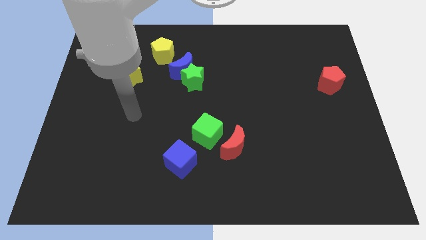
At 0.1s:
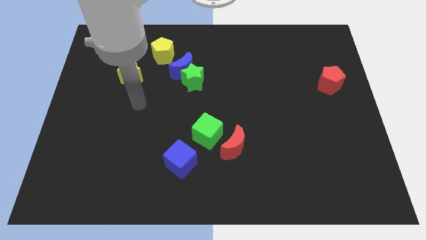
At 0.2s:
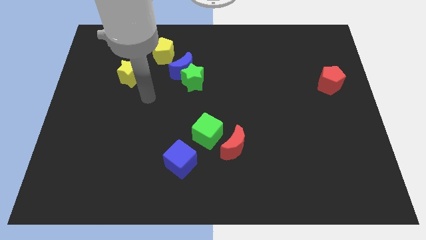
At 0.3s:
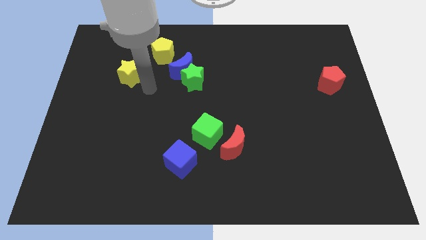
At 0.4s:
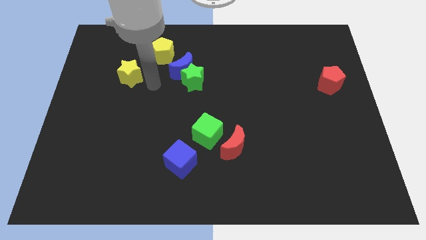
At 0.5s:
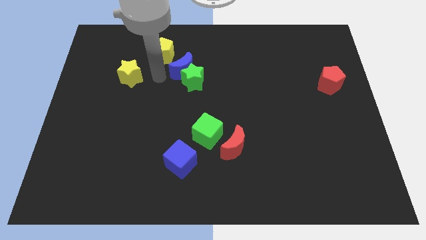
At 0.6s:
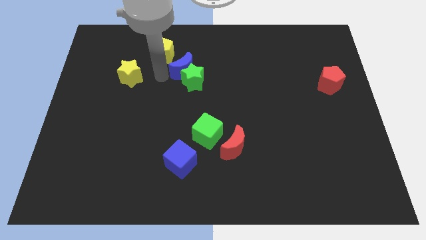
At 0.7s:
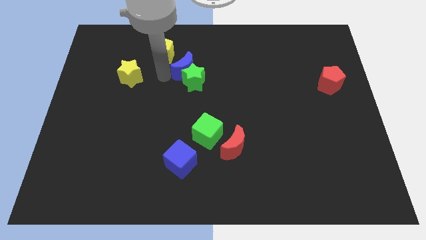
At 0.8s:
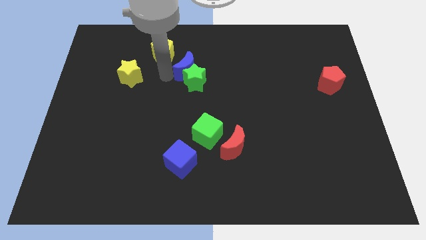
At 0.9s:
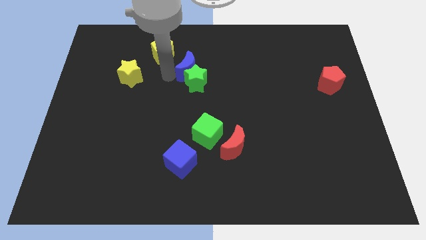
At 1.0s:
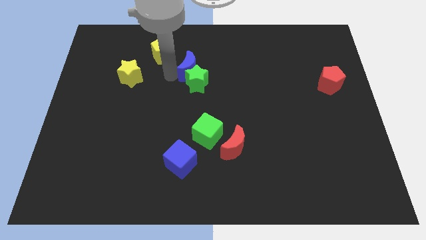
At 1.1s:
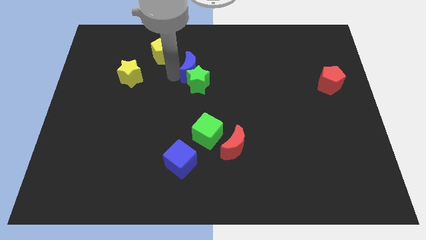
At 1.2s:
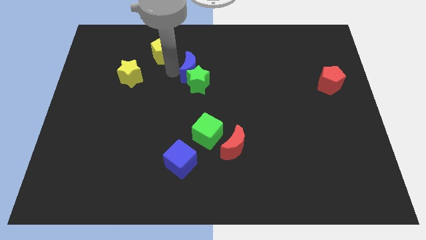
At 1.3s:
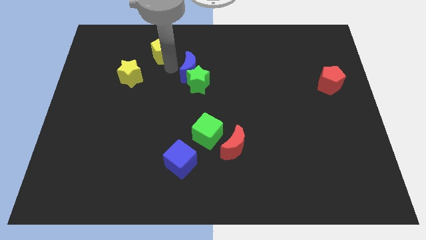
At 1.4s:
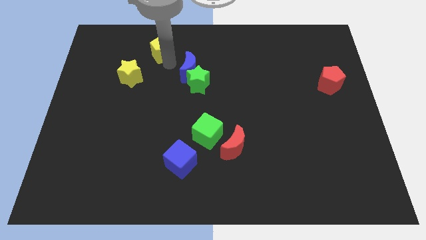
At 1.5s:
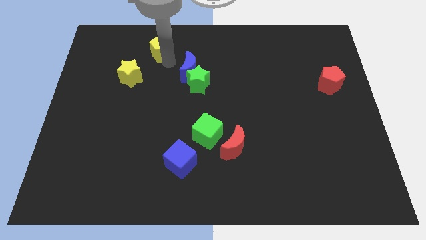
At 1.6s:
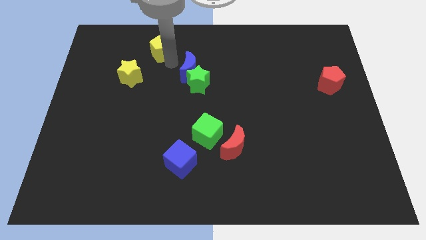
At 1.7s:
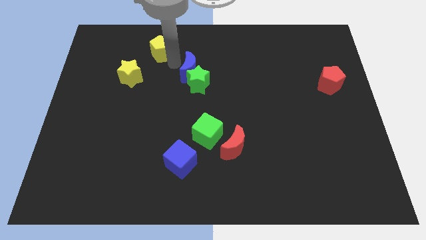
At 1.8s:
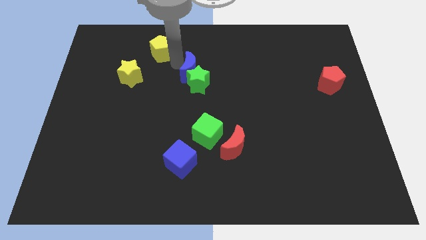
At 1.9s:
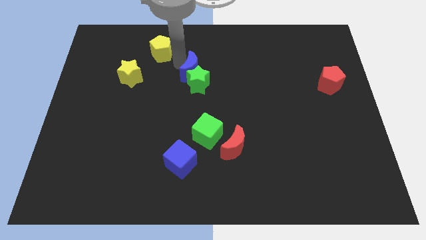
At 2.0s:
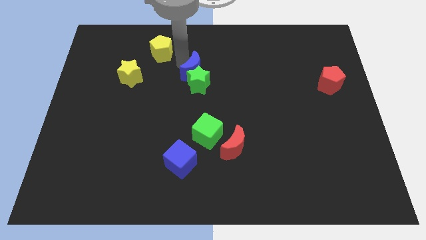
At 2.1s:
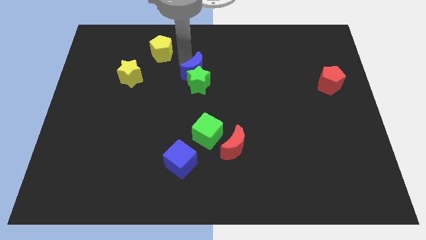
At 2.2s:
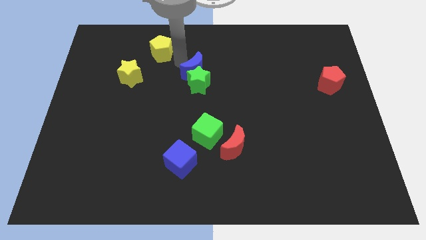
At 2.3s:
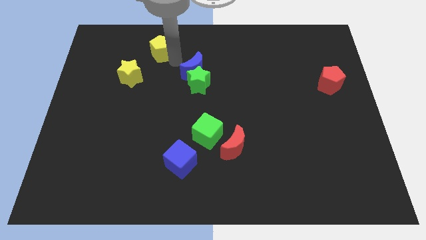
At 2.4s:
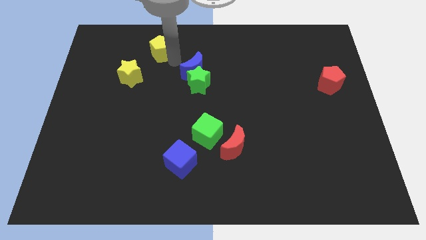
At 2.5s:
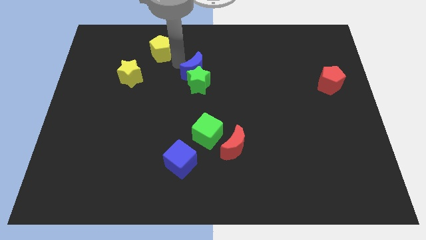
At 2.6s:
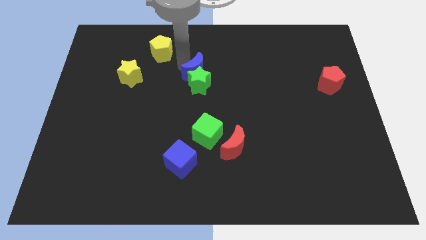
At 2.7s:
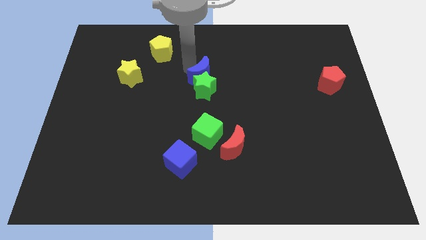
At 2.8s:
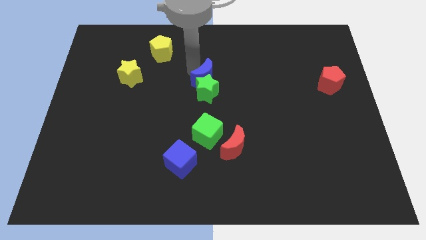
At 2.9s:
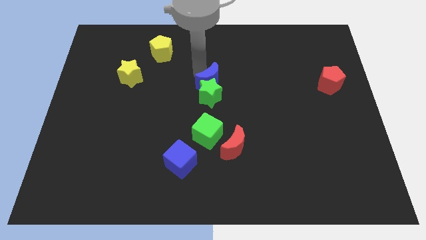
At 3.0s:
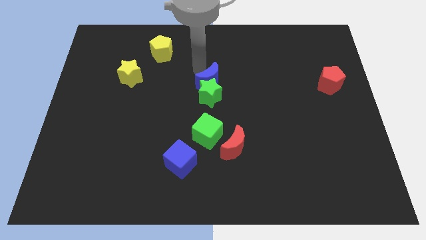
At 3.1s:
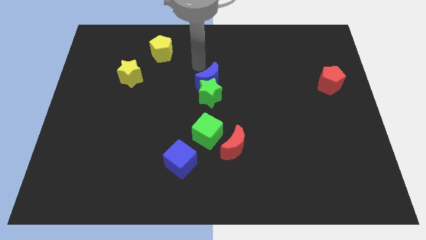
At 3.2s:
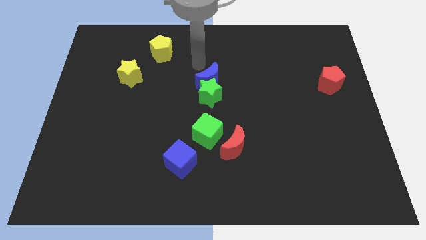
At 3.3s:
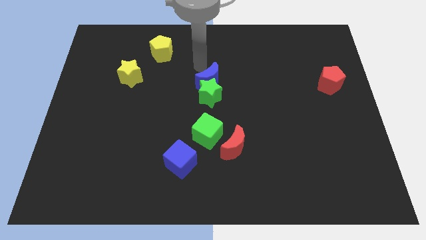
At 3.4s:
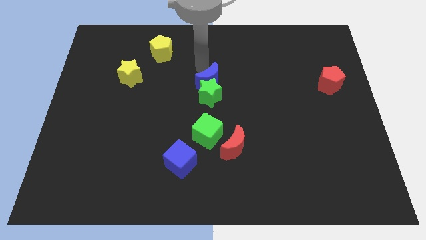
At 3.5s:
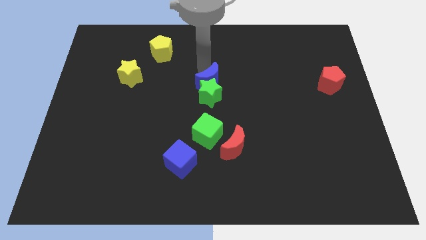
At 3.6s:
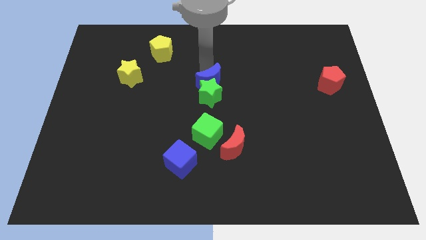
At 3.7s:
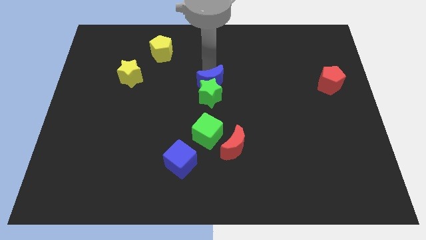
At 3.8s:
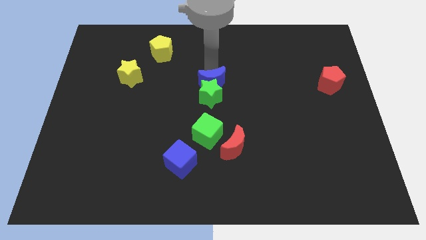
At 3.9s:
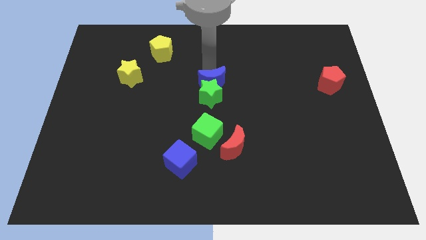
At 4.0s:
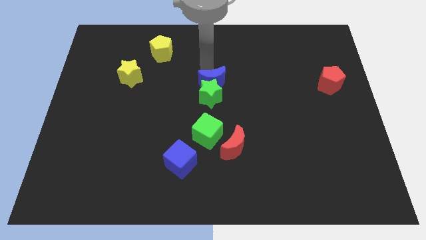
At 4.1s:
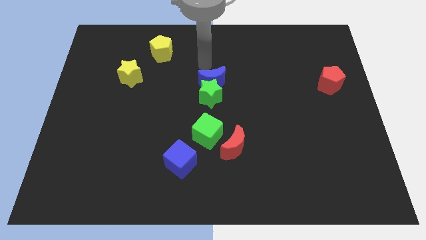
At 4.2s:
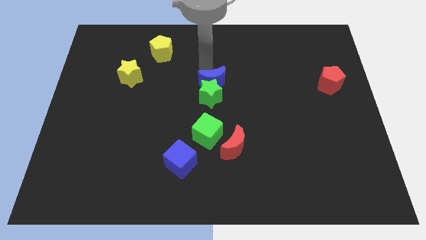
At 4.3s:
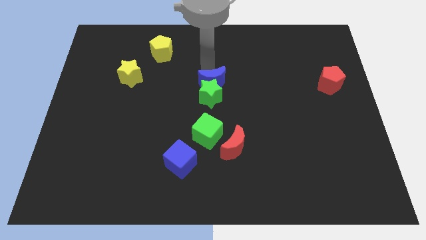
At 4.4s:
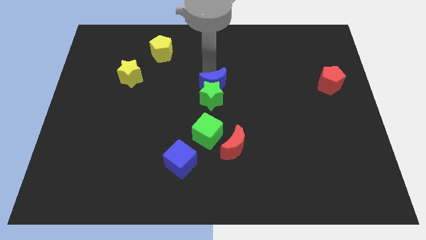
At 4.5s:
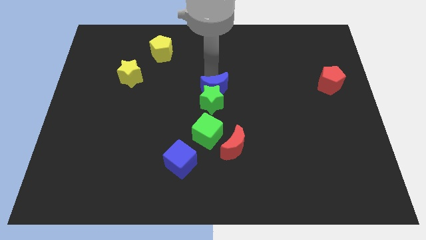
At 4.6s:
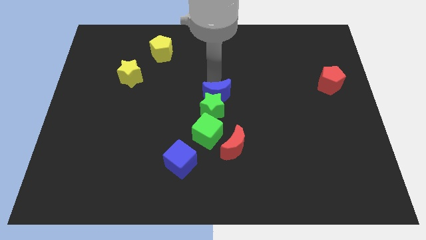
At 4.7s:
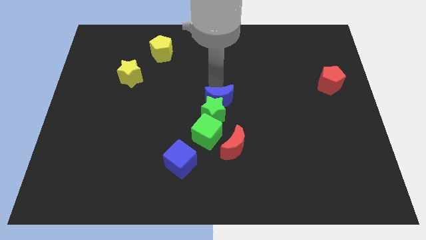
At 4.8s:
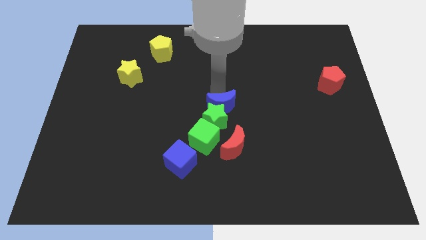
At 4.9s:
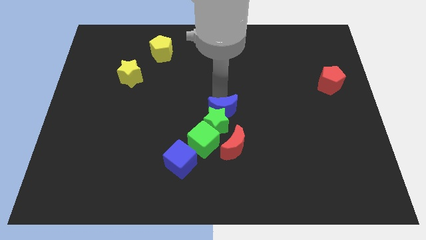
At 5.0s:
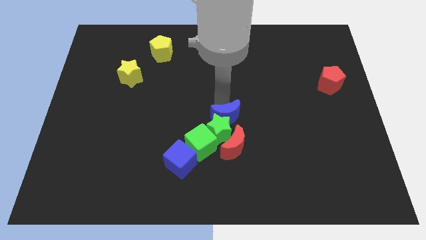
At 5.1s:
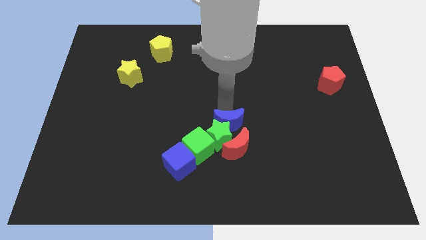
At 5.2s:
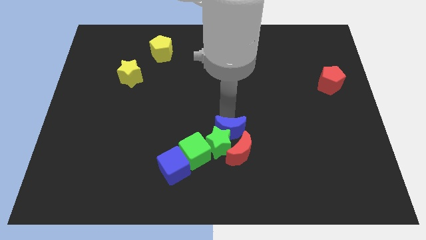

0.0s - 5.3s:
push the blue moon close to the red moon

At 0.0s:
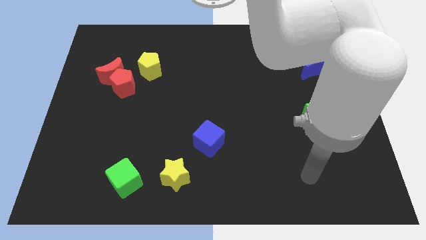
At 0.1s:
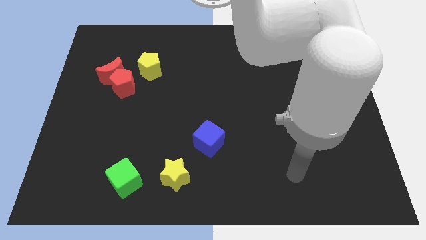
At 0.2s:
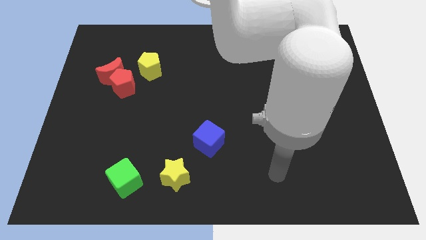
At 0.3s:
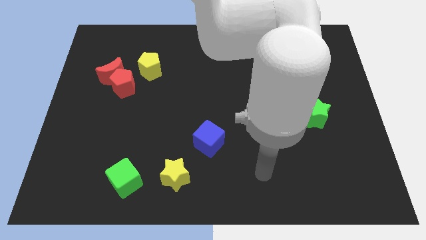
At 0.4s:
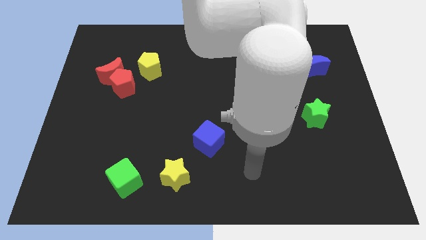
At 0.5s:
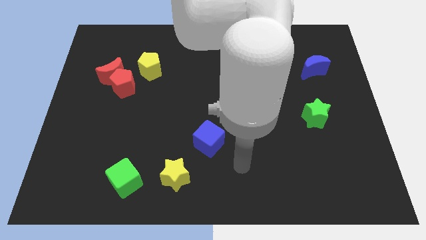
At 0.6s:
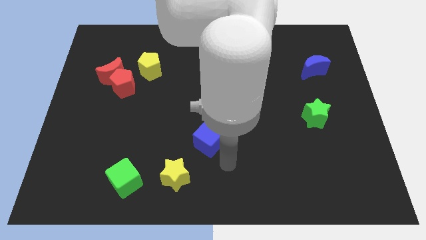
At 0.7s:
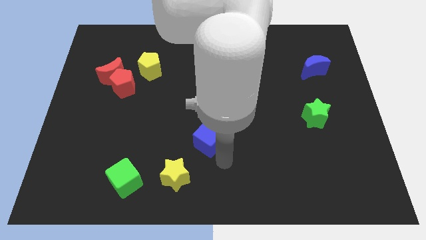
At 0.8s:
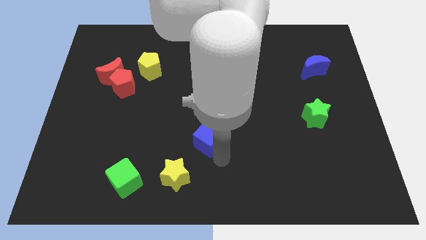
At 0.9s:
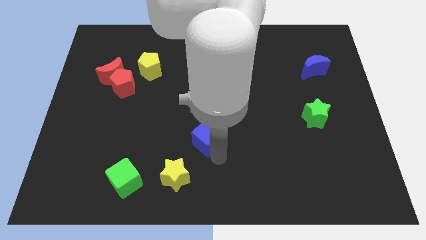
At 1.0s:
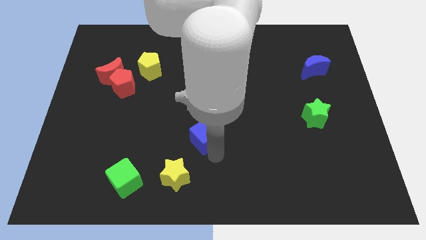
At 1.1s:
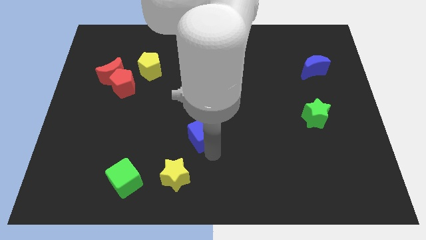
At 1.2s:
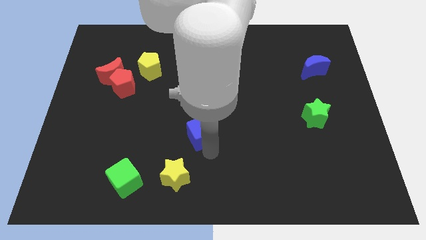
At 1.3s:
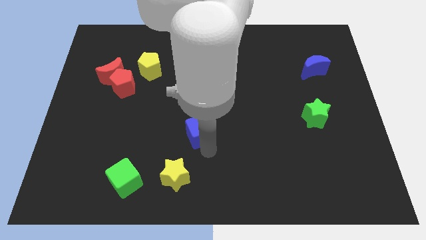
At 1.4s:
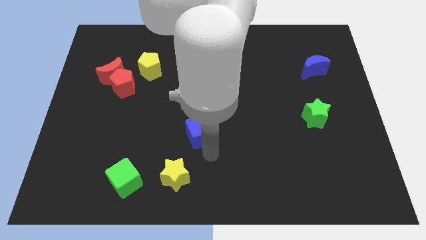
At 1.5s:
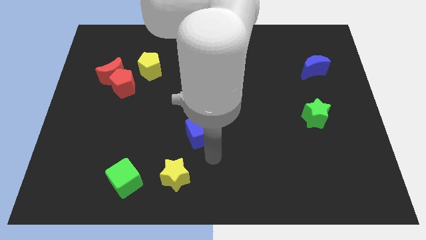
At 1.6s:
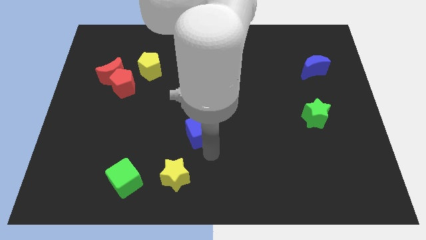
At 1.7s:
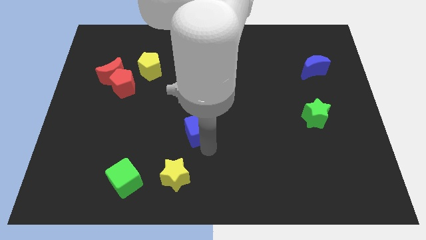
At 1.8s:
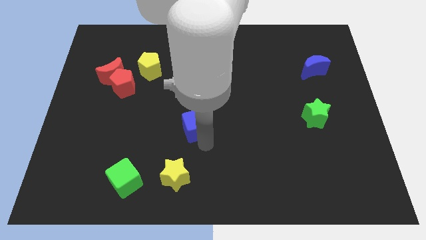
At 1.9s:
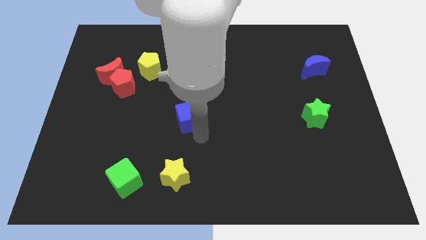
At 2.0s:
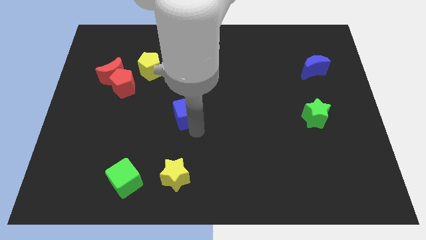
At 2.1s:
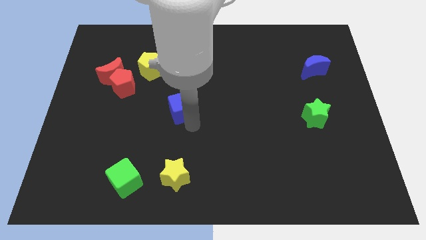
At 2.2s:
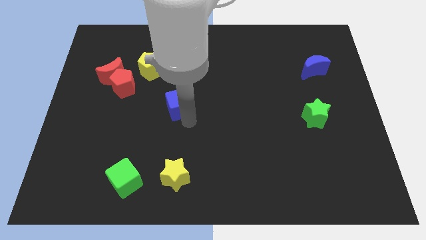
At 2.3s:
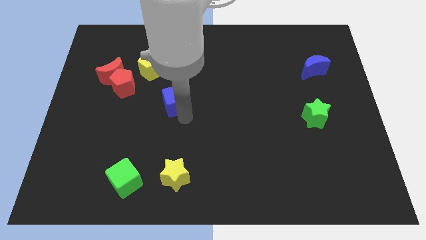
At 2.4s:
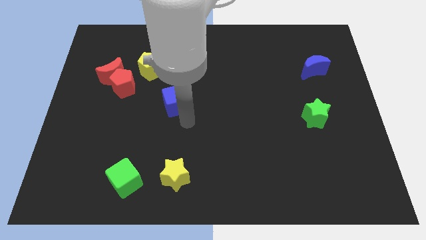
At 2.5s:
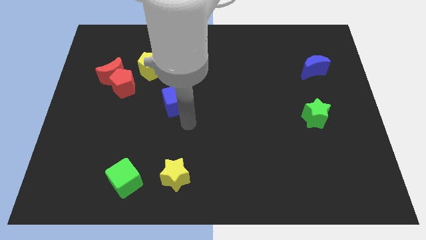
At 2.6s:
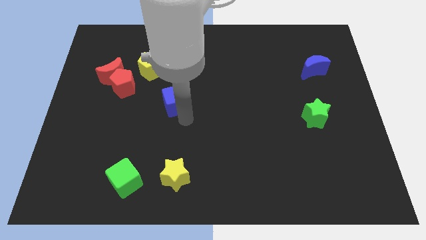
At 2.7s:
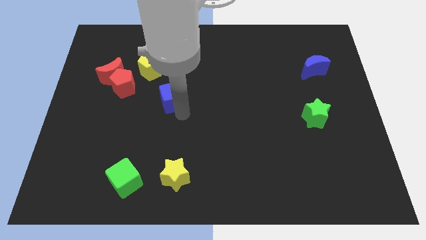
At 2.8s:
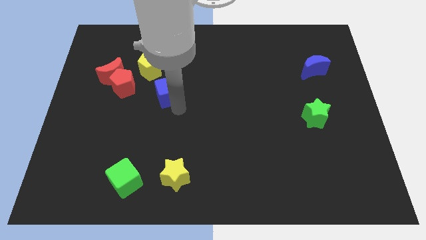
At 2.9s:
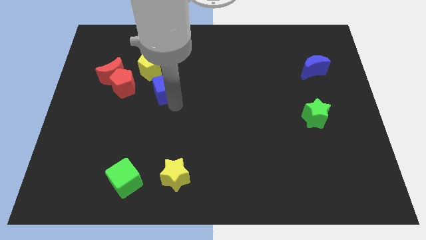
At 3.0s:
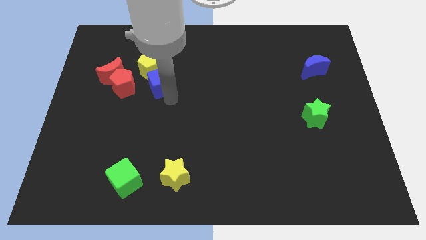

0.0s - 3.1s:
put the blue cube next to the yellow pentagon
